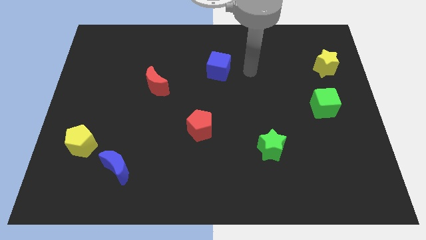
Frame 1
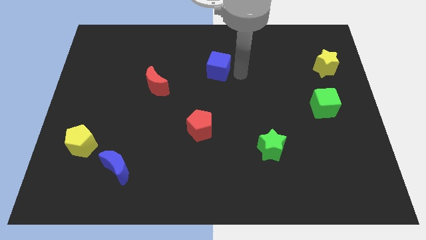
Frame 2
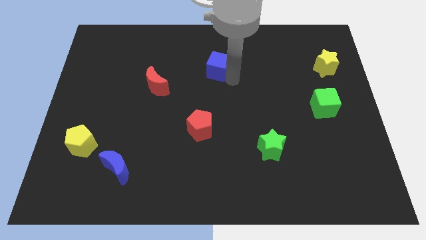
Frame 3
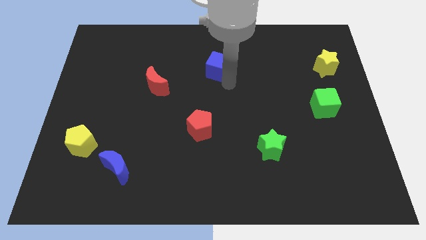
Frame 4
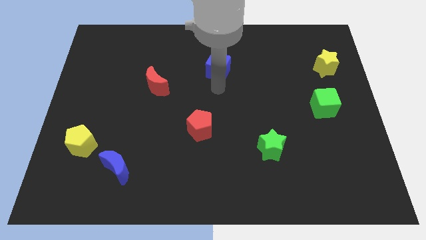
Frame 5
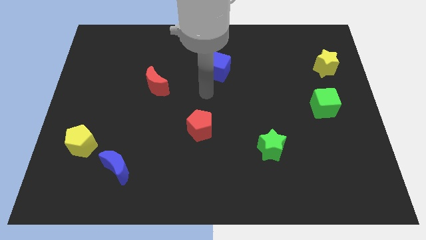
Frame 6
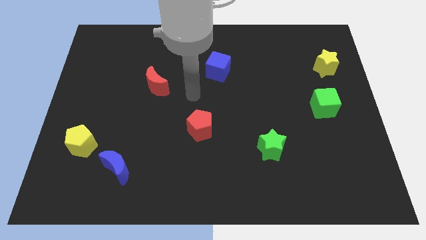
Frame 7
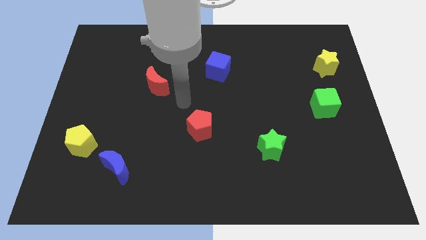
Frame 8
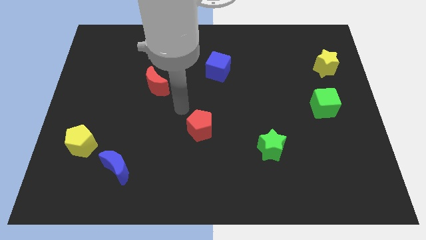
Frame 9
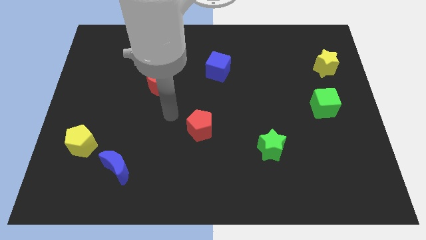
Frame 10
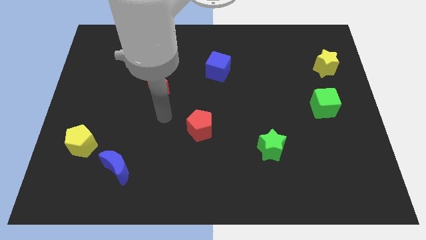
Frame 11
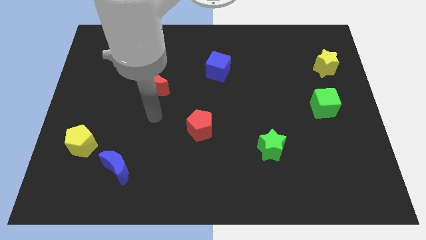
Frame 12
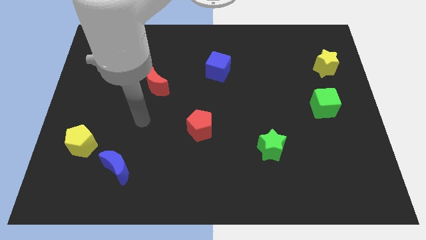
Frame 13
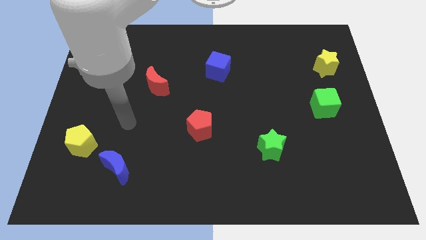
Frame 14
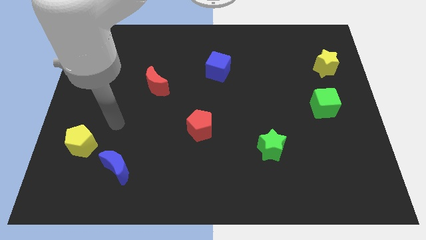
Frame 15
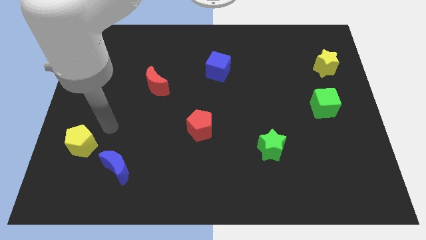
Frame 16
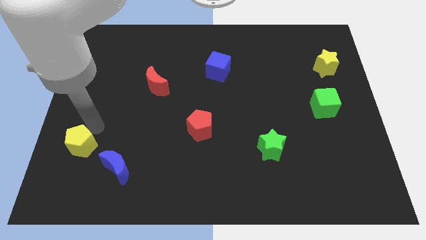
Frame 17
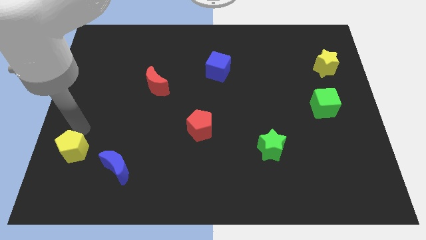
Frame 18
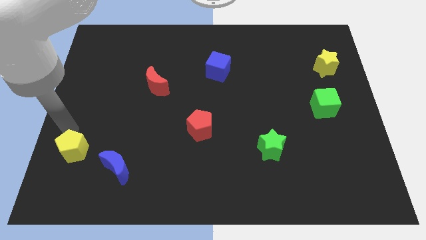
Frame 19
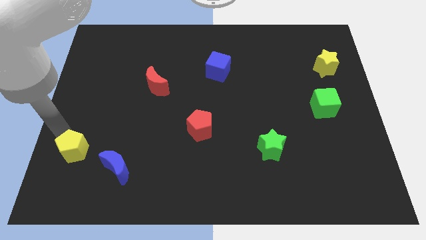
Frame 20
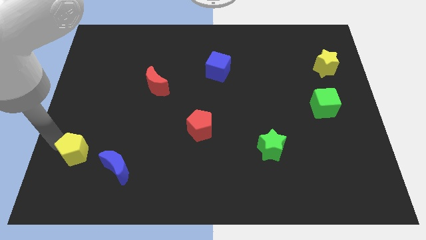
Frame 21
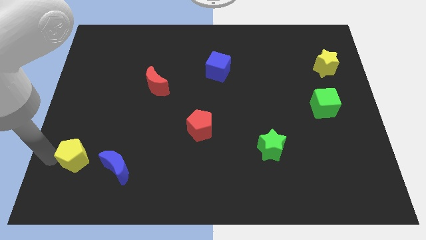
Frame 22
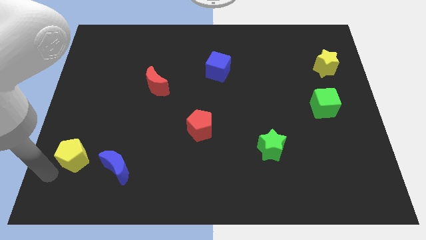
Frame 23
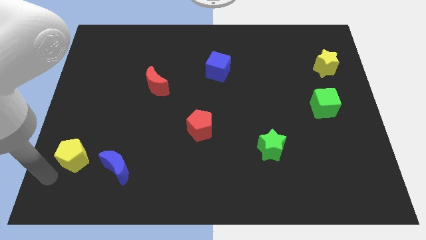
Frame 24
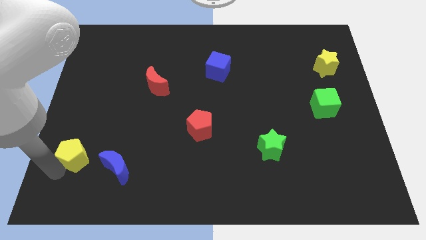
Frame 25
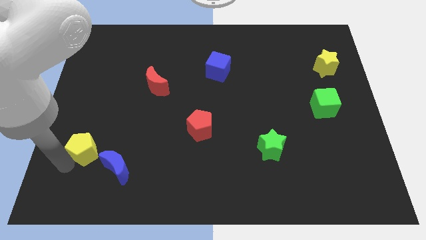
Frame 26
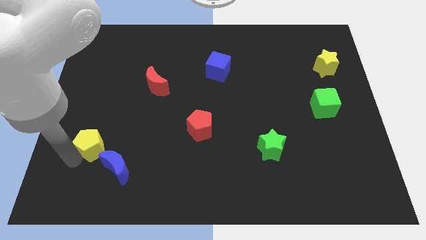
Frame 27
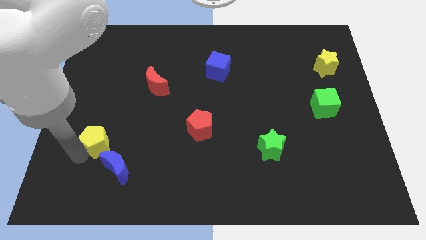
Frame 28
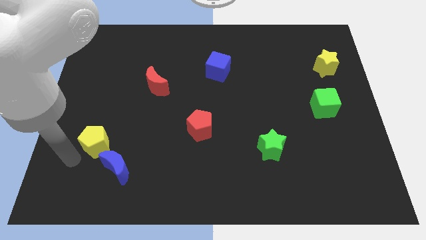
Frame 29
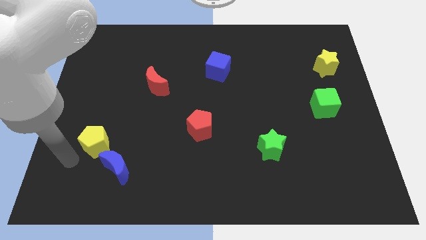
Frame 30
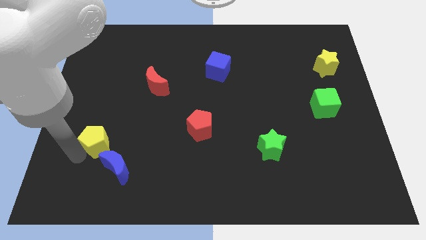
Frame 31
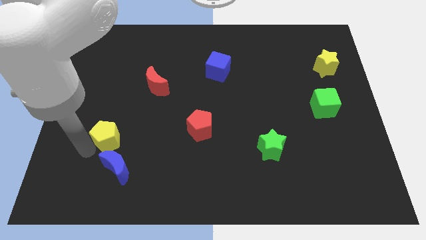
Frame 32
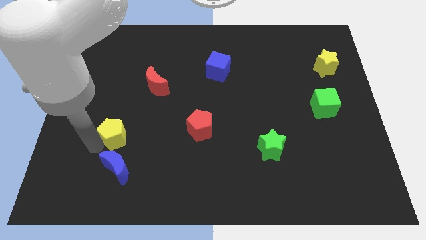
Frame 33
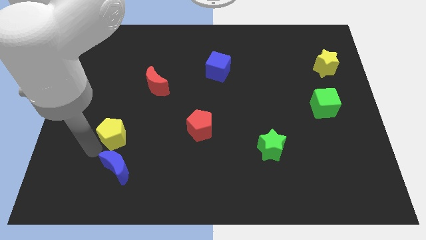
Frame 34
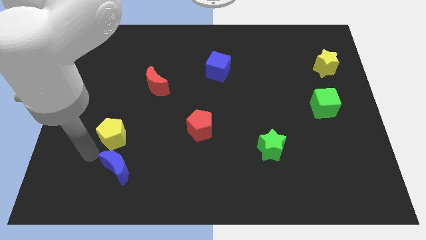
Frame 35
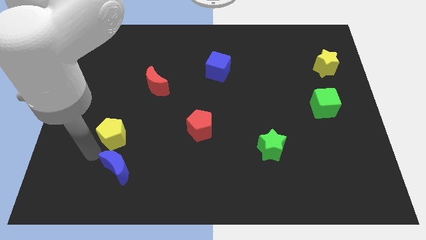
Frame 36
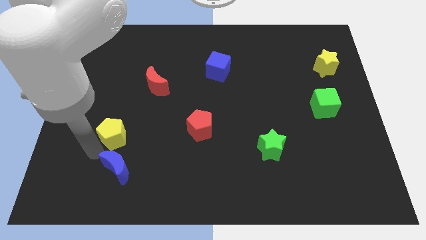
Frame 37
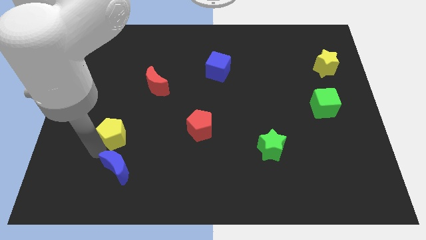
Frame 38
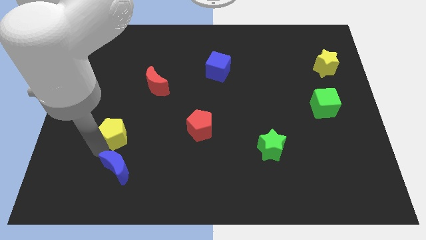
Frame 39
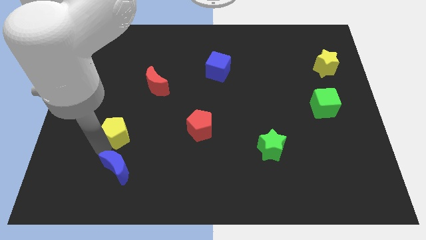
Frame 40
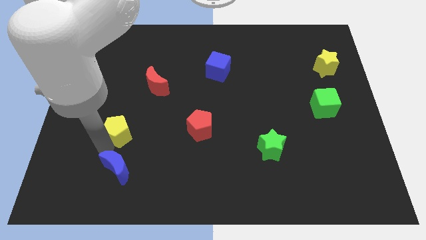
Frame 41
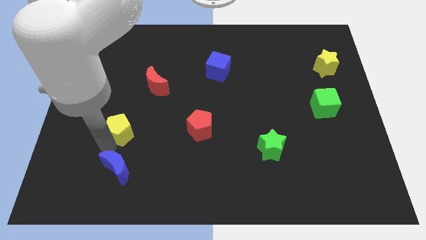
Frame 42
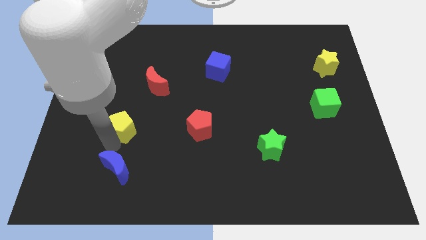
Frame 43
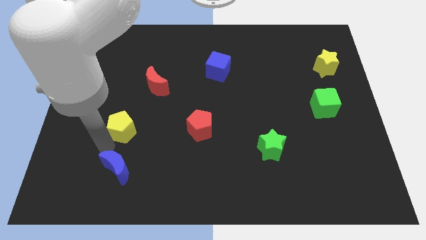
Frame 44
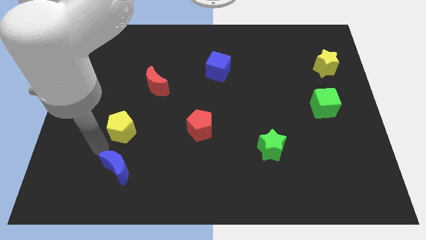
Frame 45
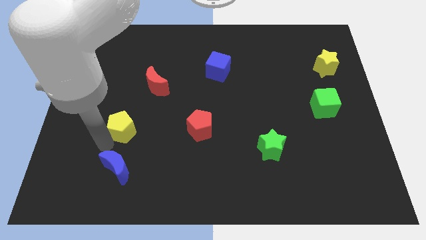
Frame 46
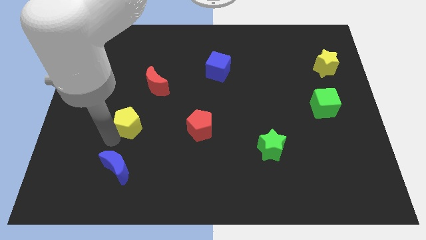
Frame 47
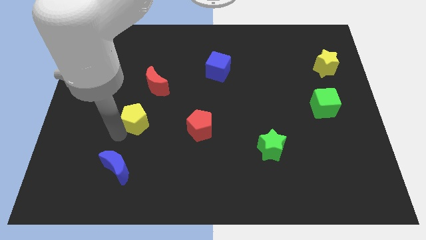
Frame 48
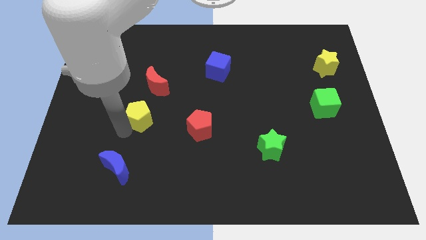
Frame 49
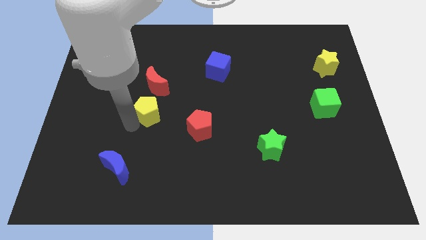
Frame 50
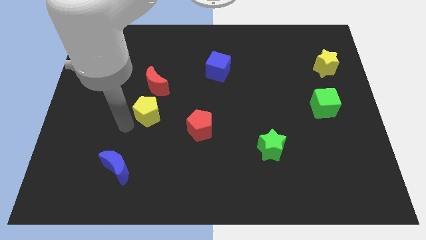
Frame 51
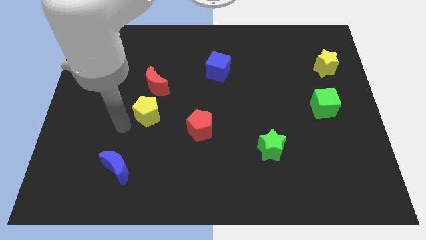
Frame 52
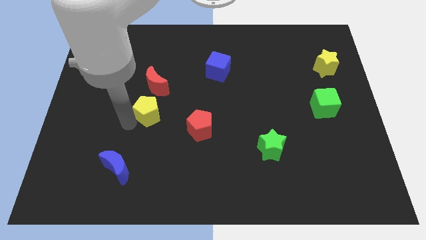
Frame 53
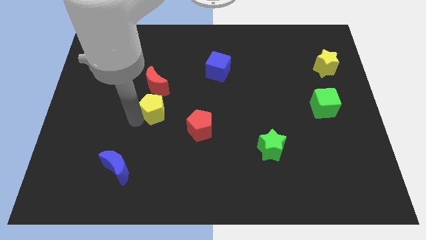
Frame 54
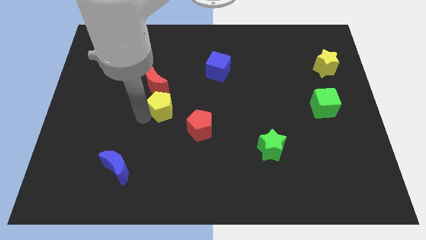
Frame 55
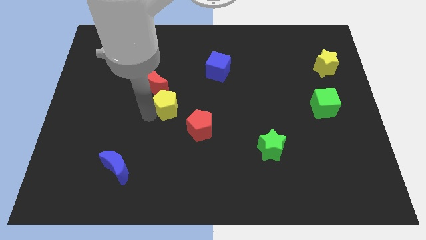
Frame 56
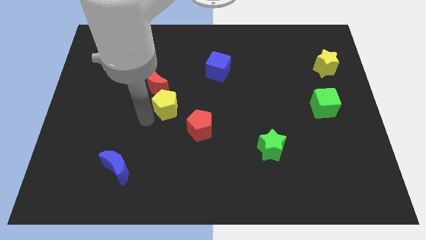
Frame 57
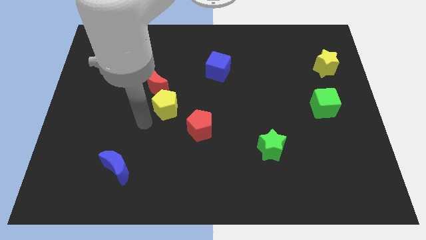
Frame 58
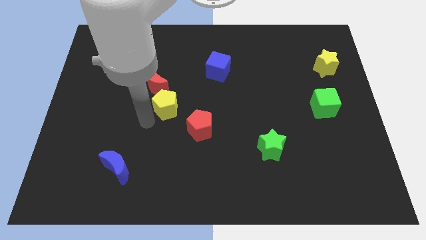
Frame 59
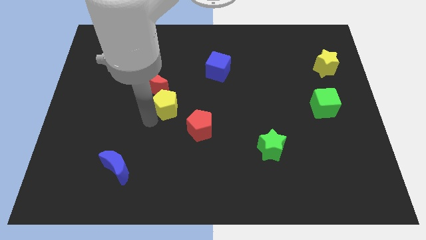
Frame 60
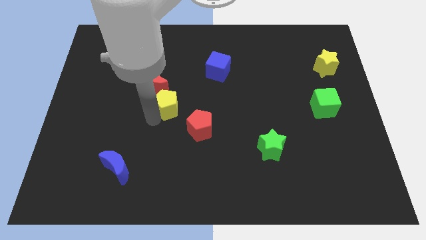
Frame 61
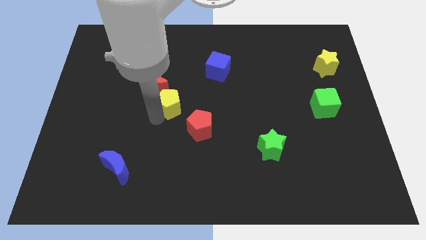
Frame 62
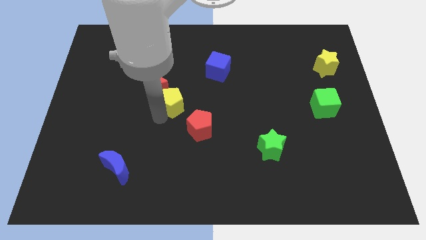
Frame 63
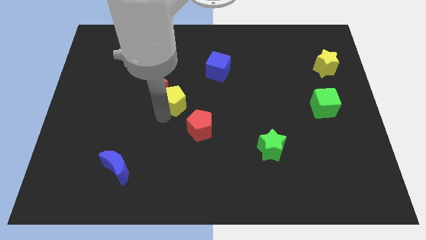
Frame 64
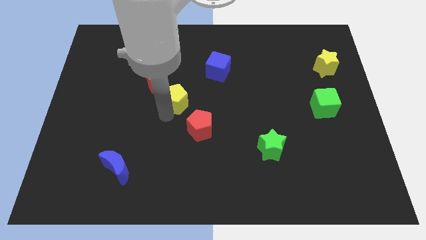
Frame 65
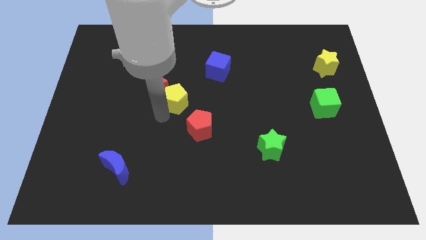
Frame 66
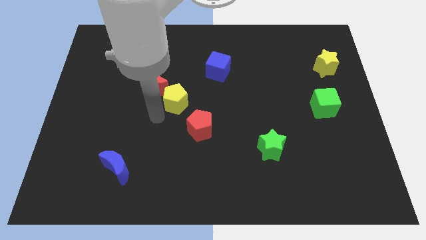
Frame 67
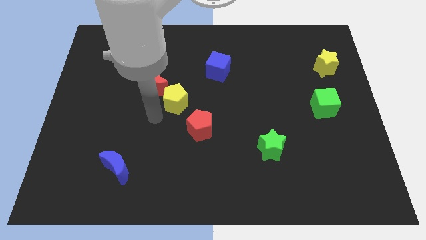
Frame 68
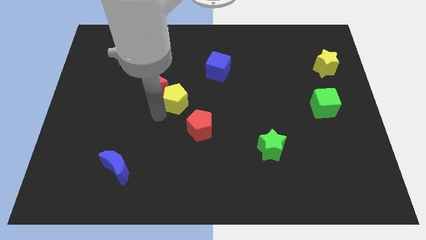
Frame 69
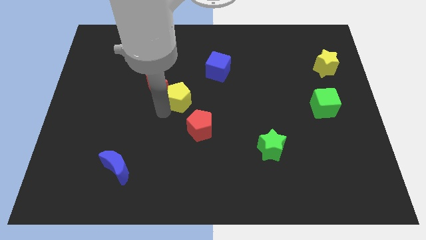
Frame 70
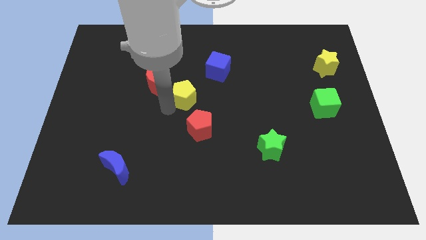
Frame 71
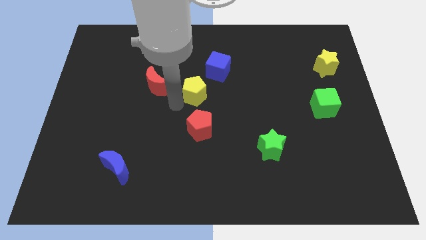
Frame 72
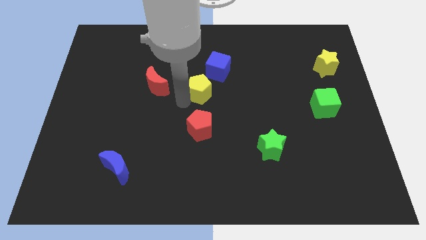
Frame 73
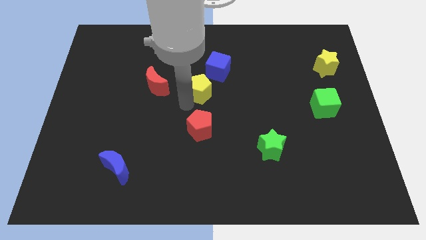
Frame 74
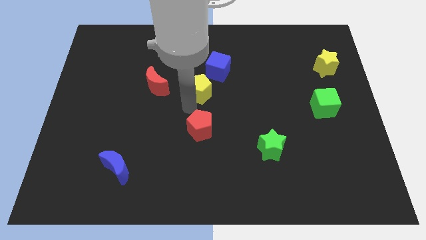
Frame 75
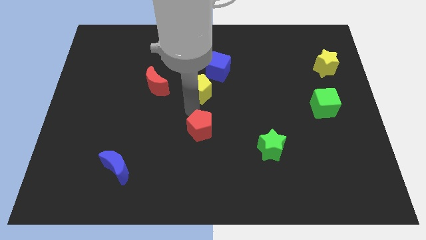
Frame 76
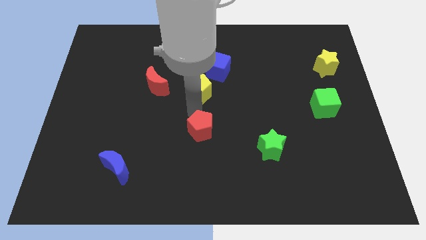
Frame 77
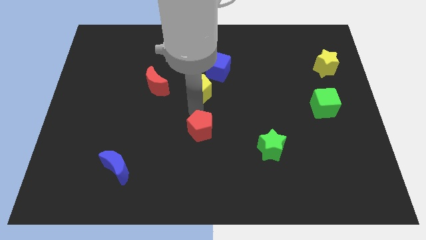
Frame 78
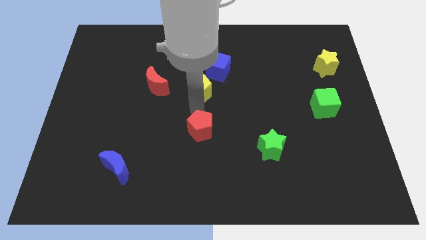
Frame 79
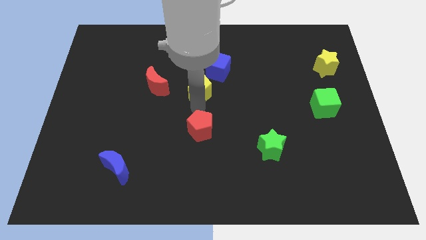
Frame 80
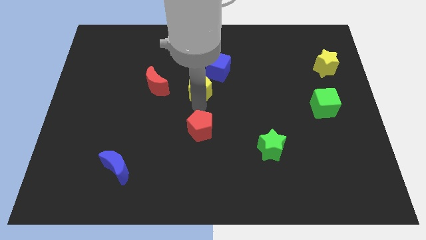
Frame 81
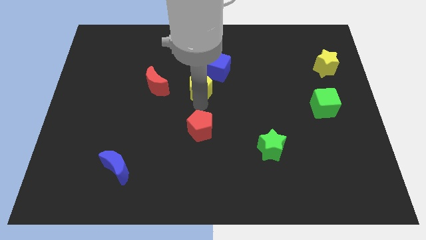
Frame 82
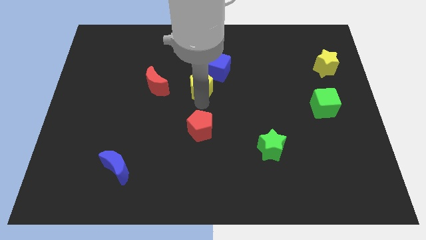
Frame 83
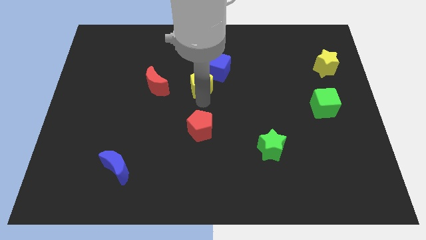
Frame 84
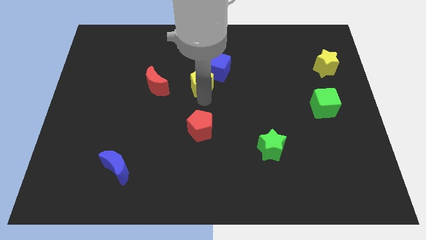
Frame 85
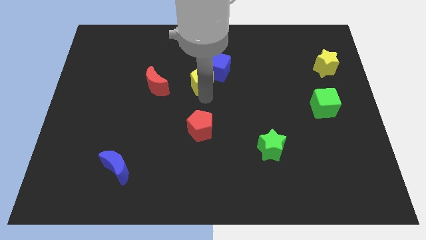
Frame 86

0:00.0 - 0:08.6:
push the yellow pentagon to the blue cube
